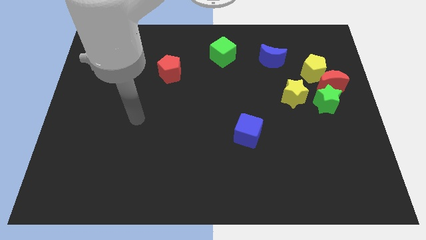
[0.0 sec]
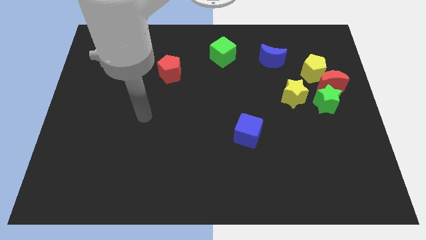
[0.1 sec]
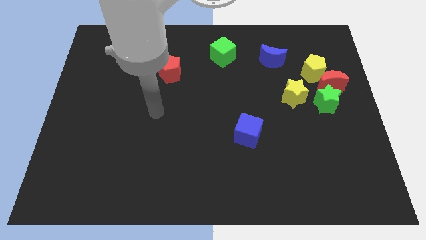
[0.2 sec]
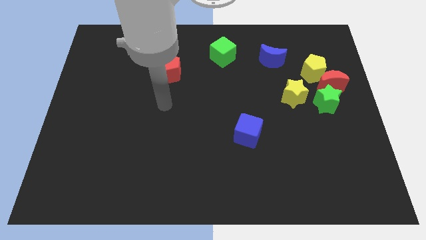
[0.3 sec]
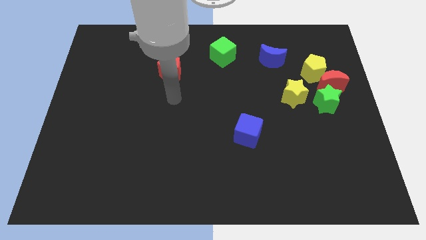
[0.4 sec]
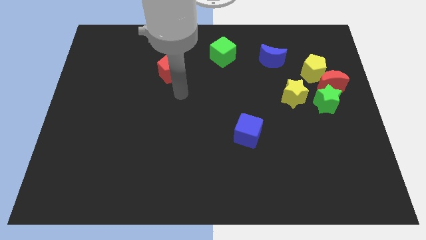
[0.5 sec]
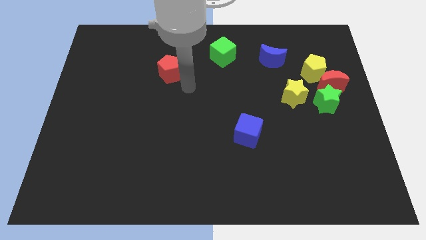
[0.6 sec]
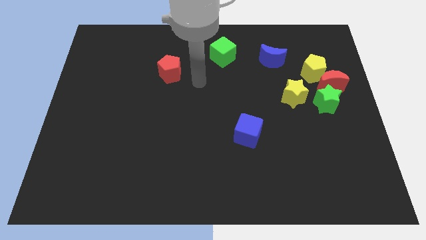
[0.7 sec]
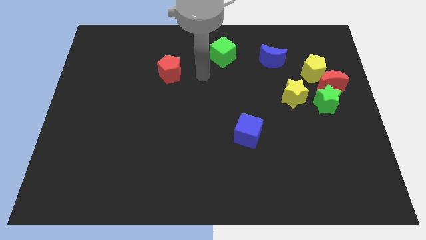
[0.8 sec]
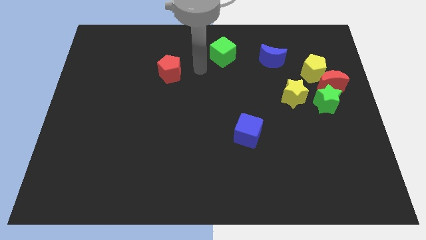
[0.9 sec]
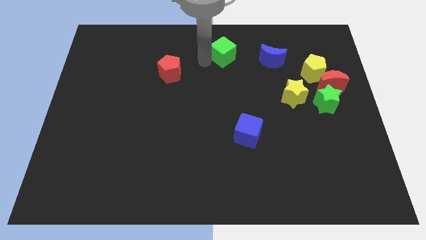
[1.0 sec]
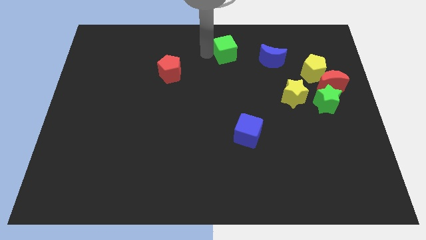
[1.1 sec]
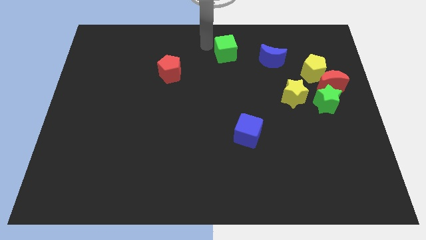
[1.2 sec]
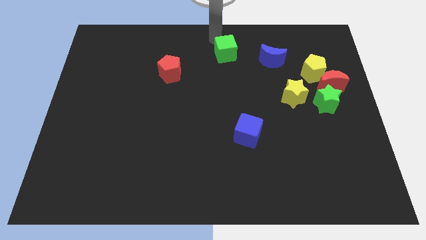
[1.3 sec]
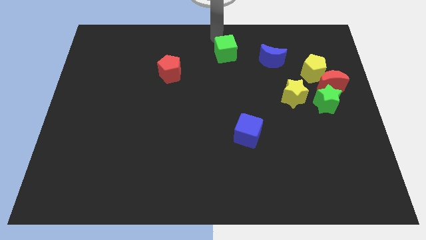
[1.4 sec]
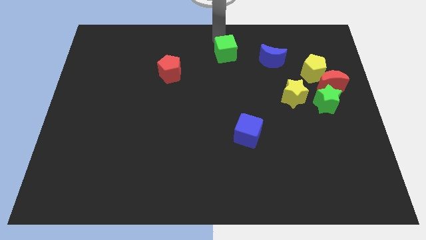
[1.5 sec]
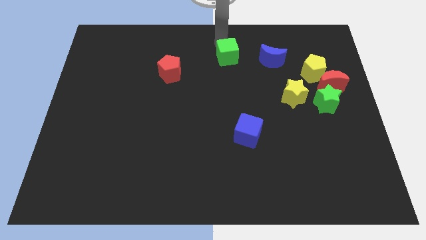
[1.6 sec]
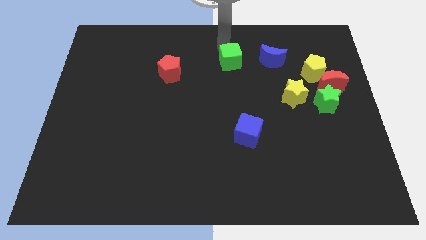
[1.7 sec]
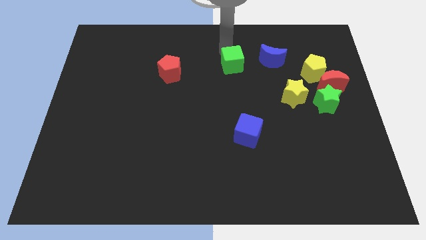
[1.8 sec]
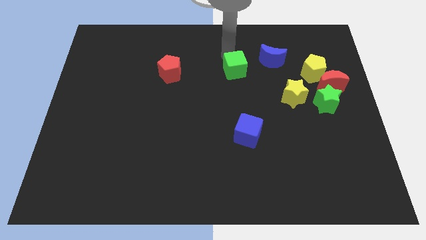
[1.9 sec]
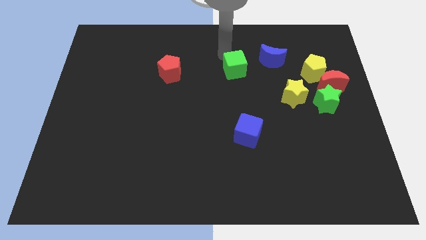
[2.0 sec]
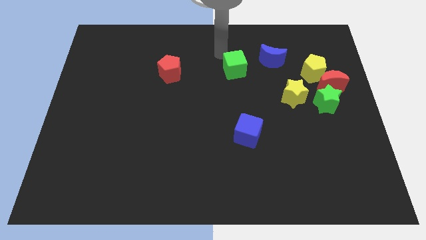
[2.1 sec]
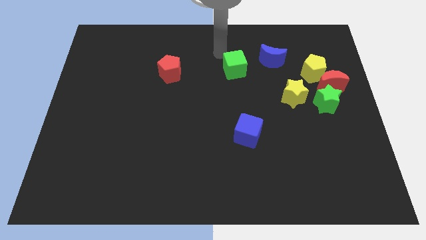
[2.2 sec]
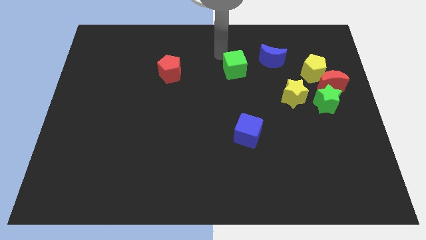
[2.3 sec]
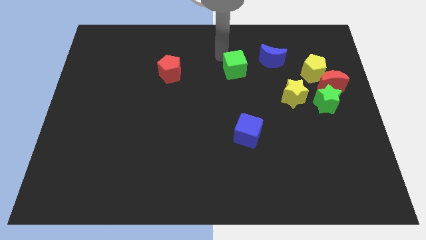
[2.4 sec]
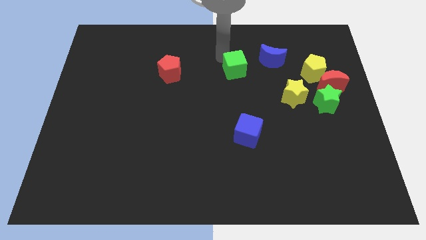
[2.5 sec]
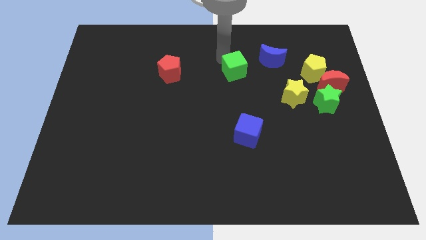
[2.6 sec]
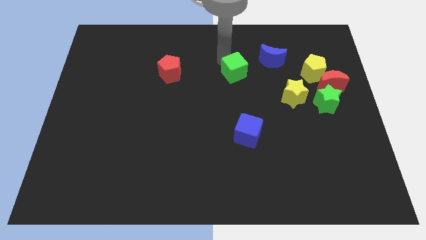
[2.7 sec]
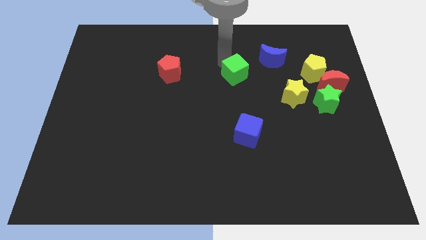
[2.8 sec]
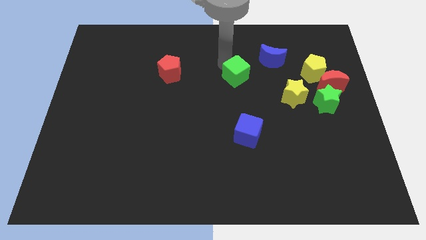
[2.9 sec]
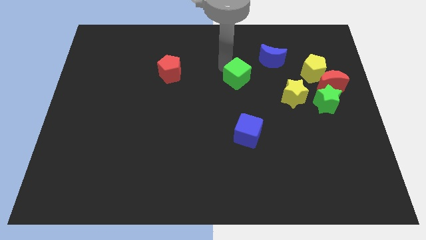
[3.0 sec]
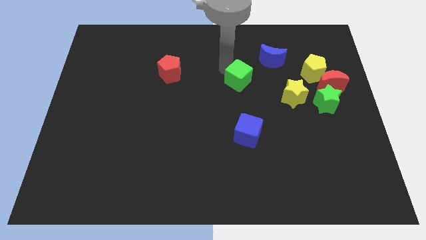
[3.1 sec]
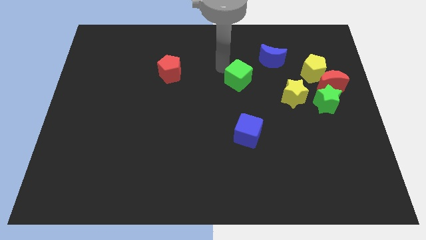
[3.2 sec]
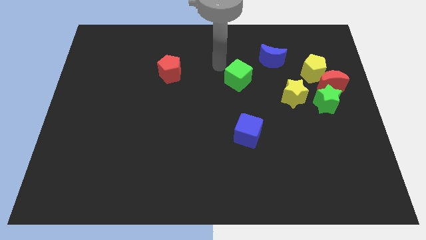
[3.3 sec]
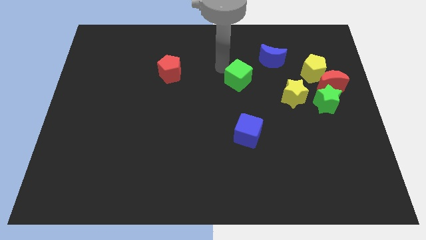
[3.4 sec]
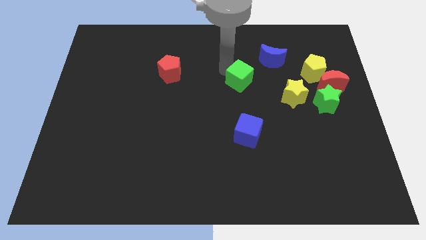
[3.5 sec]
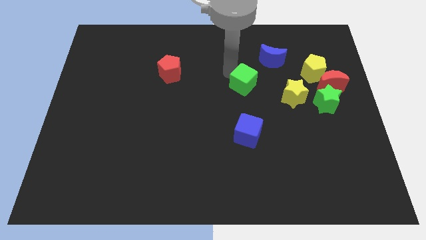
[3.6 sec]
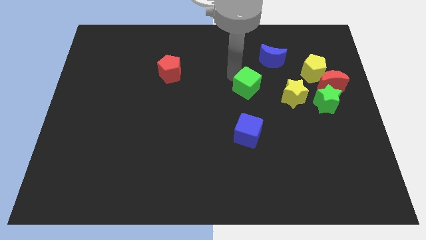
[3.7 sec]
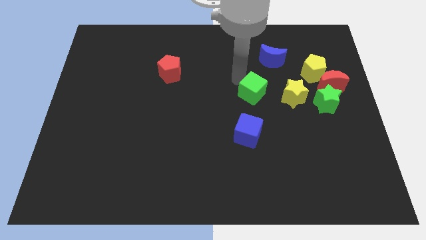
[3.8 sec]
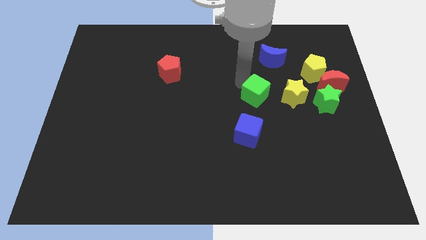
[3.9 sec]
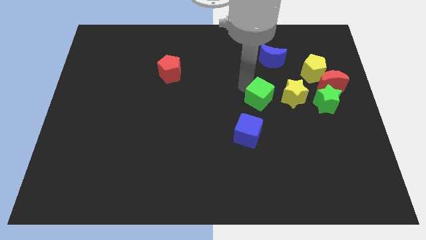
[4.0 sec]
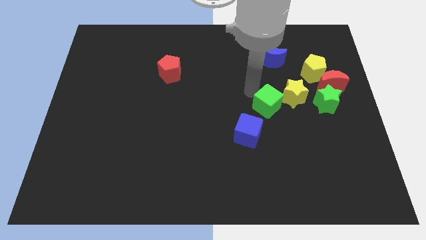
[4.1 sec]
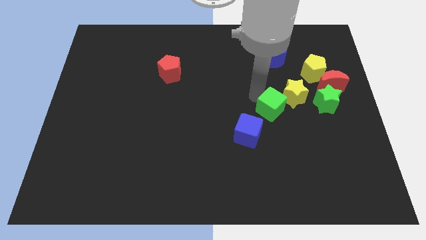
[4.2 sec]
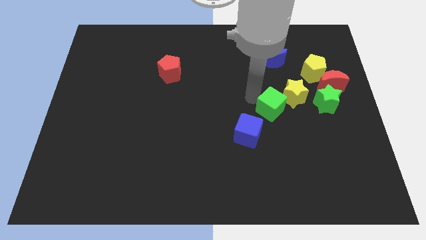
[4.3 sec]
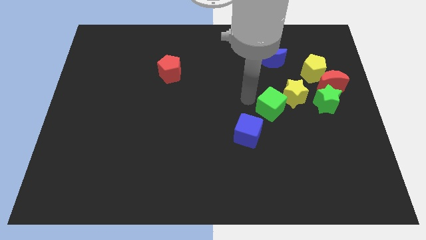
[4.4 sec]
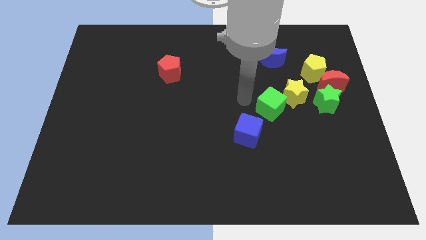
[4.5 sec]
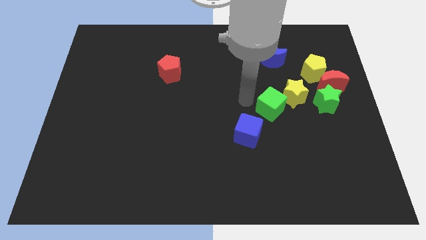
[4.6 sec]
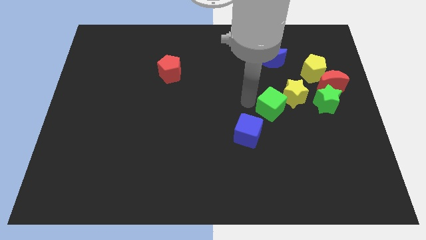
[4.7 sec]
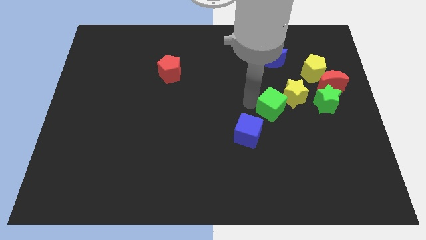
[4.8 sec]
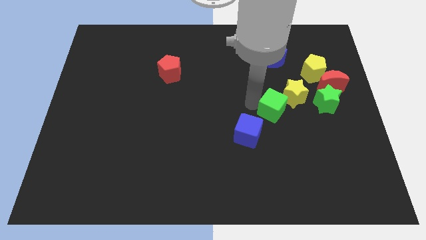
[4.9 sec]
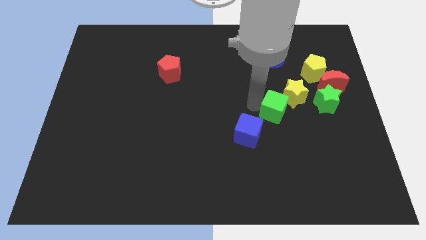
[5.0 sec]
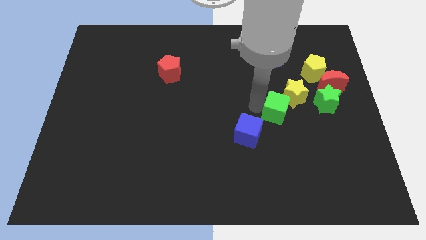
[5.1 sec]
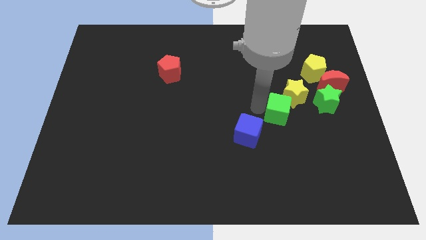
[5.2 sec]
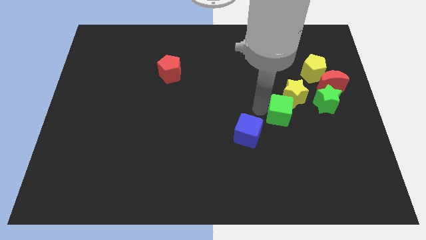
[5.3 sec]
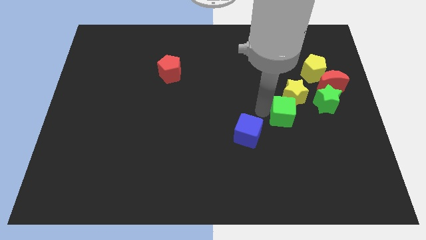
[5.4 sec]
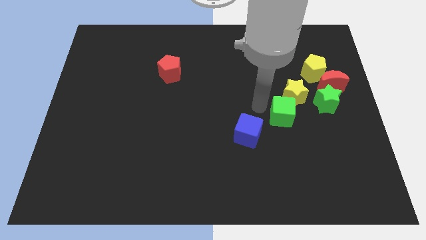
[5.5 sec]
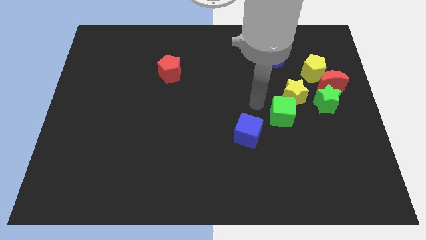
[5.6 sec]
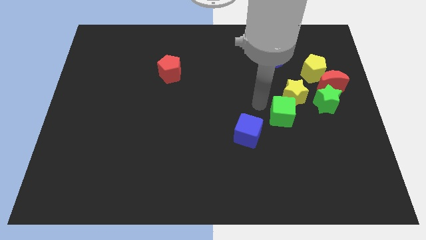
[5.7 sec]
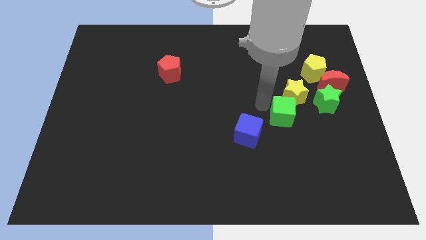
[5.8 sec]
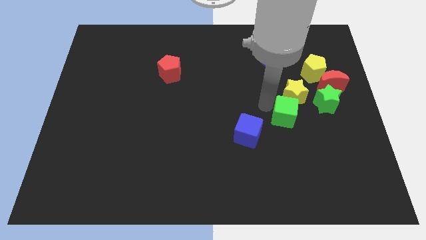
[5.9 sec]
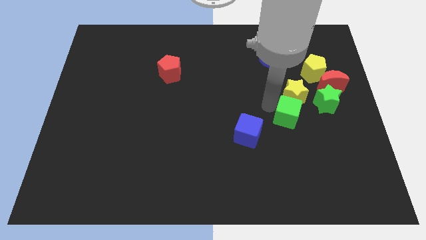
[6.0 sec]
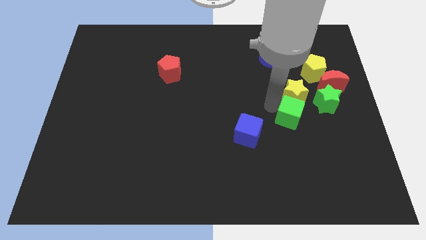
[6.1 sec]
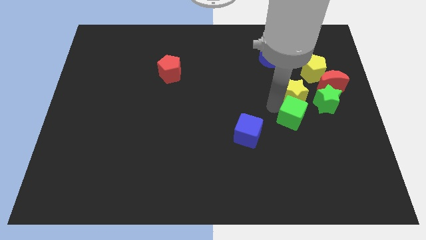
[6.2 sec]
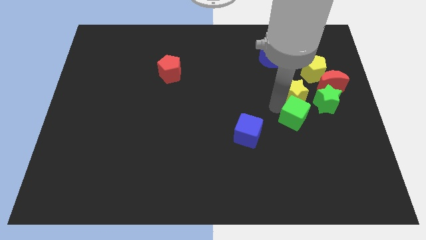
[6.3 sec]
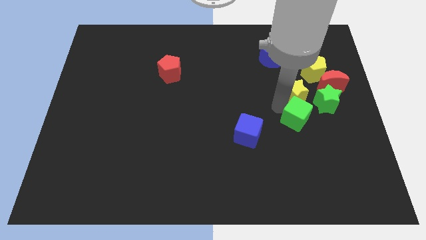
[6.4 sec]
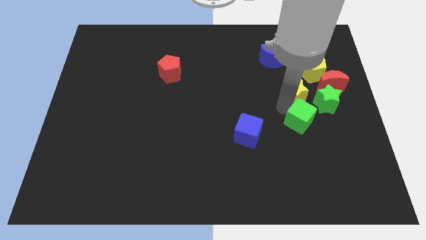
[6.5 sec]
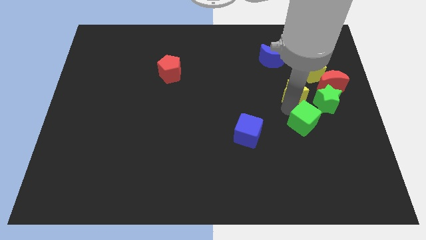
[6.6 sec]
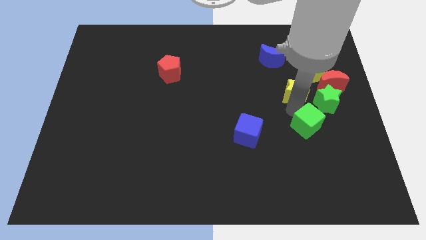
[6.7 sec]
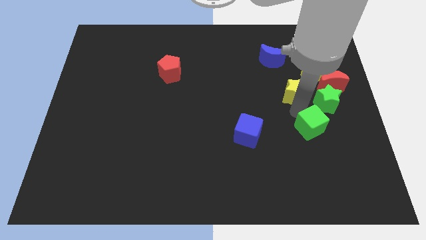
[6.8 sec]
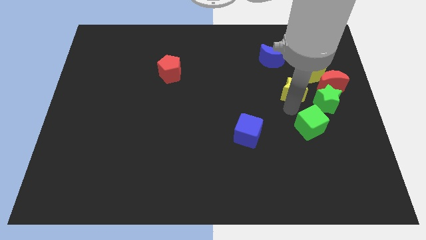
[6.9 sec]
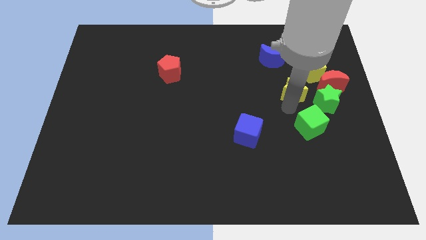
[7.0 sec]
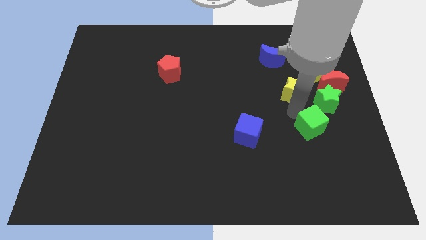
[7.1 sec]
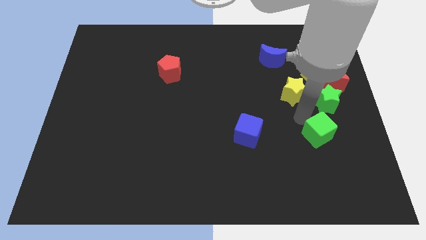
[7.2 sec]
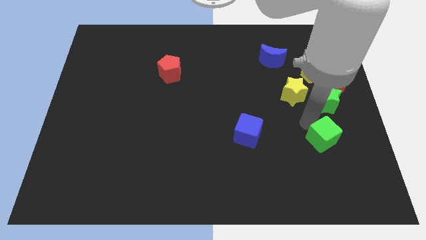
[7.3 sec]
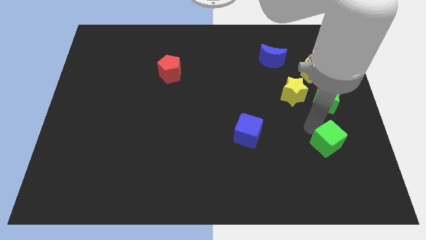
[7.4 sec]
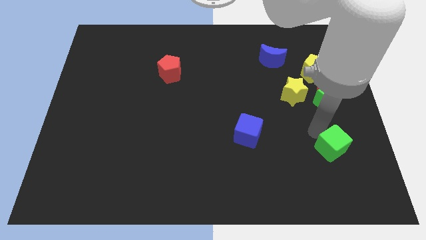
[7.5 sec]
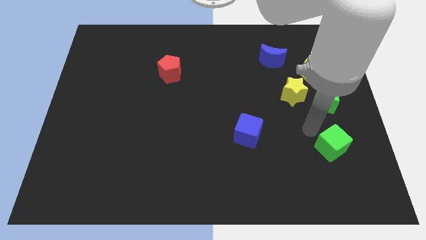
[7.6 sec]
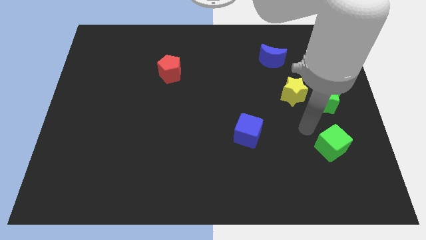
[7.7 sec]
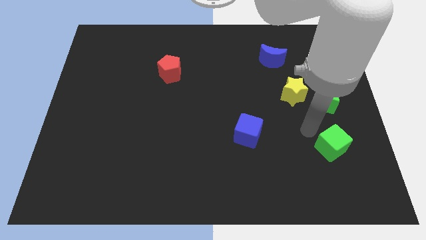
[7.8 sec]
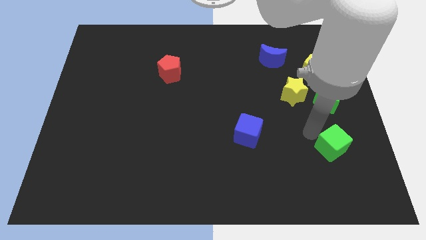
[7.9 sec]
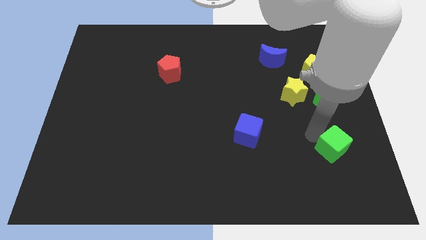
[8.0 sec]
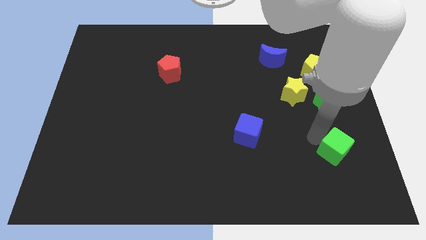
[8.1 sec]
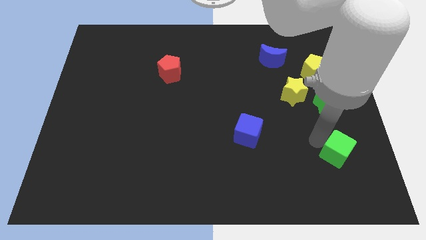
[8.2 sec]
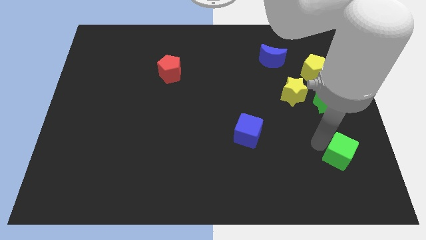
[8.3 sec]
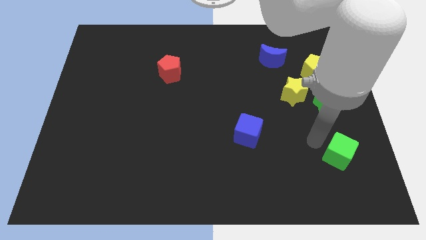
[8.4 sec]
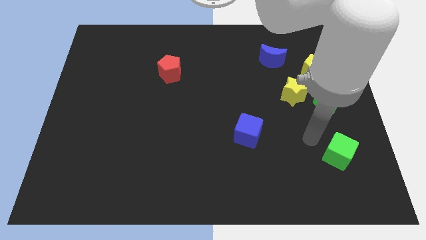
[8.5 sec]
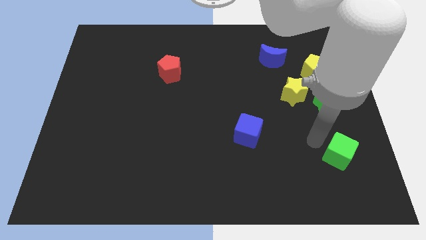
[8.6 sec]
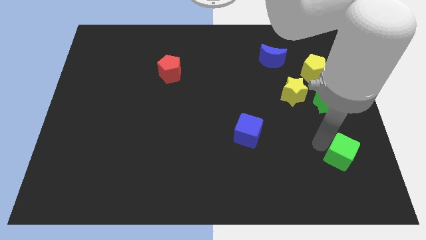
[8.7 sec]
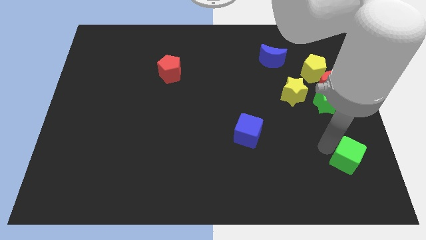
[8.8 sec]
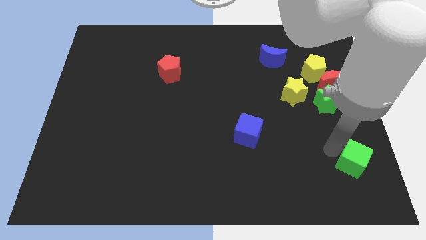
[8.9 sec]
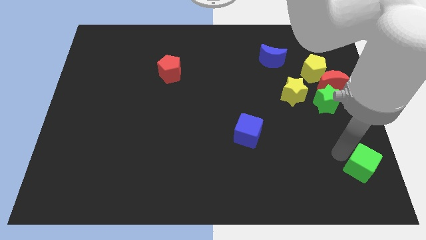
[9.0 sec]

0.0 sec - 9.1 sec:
slide the green cube to the bottom right of the board
